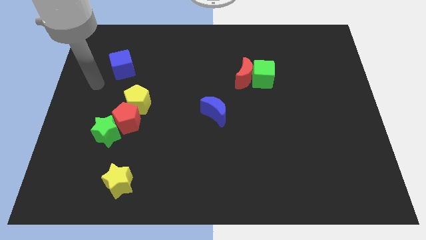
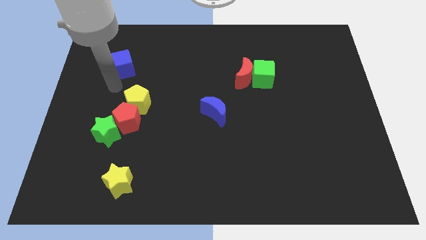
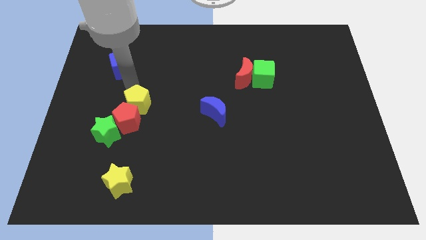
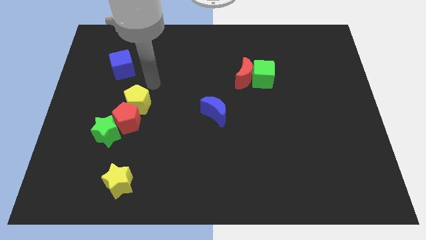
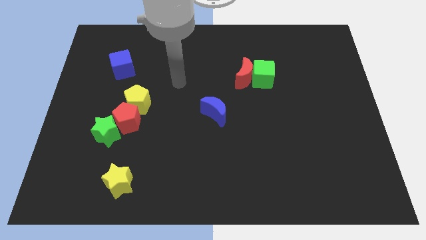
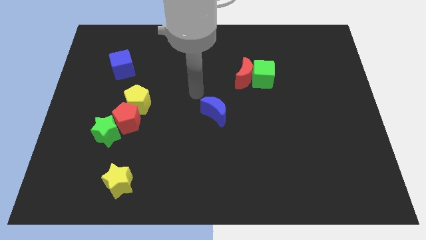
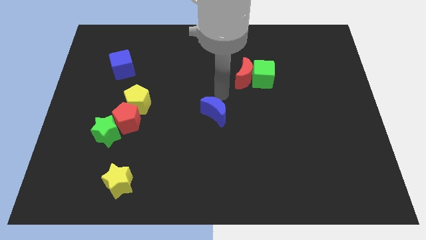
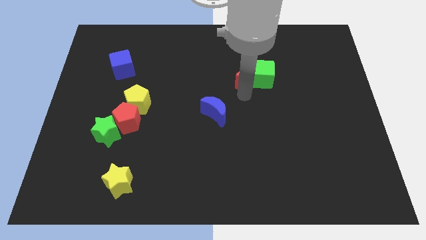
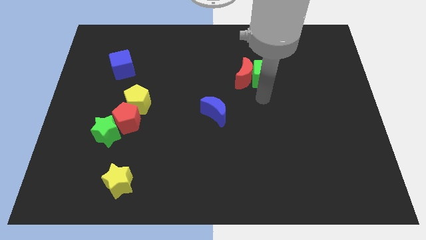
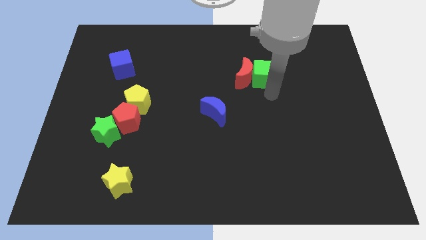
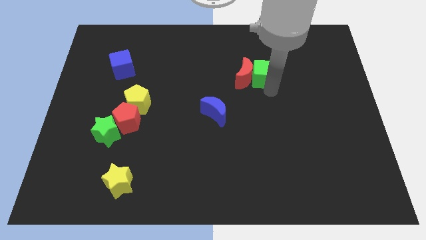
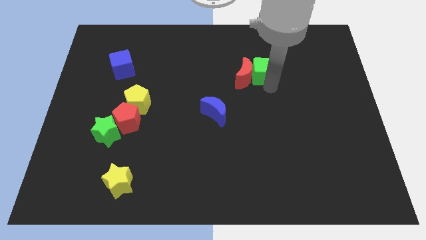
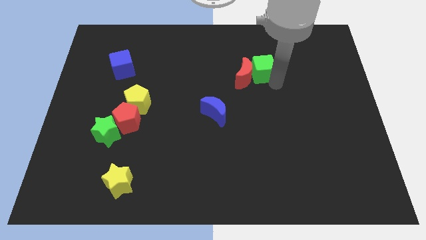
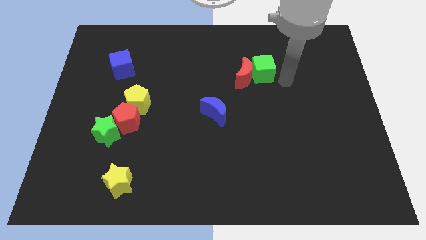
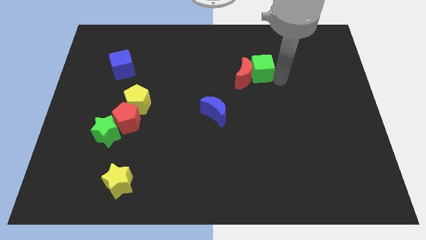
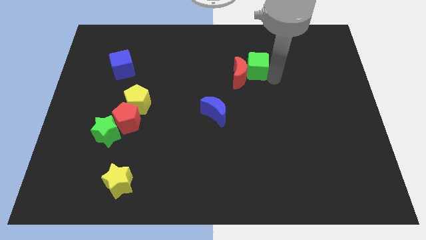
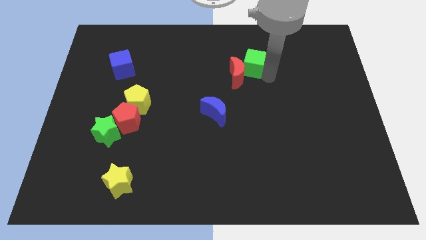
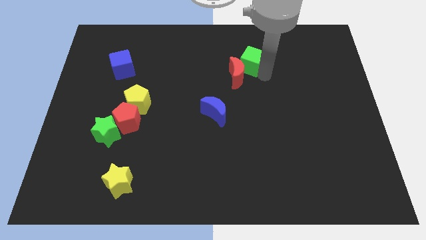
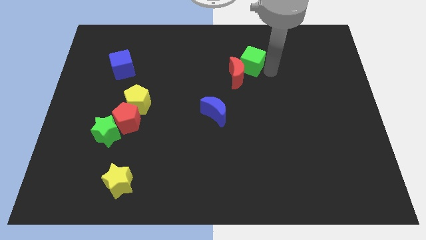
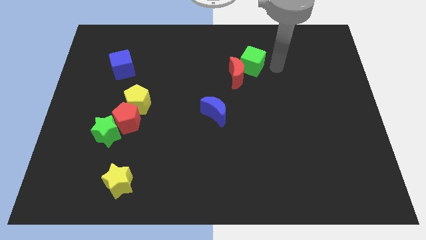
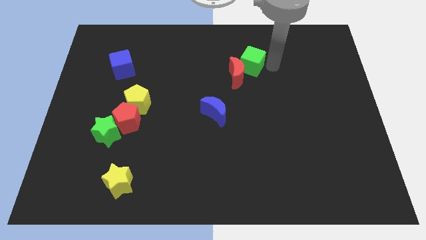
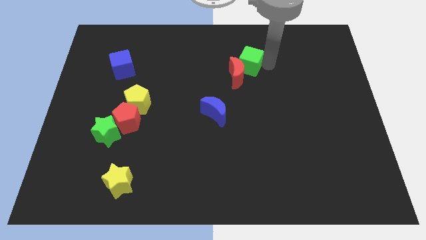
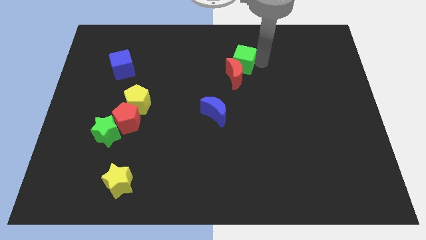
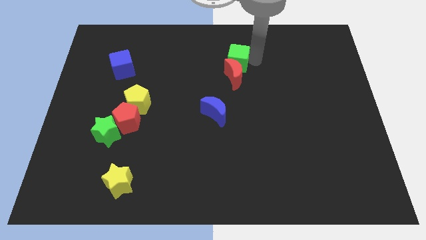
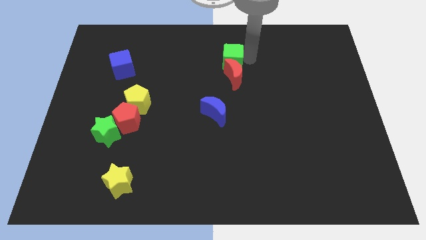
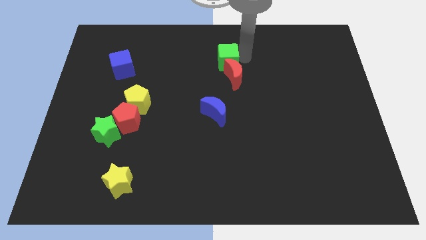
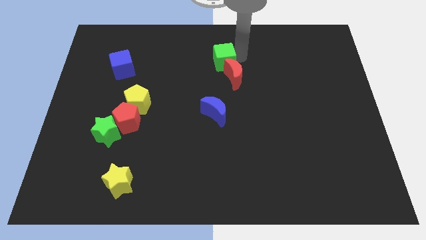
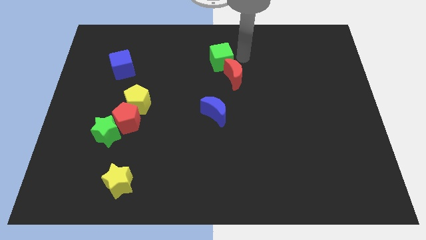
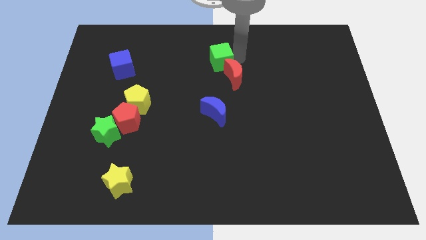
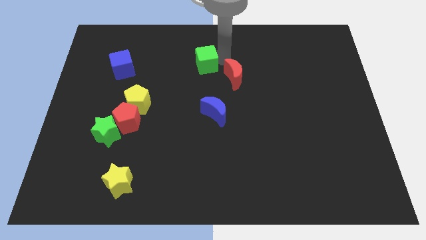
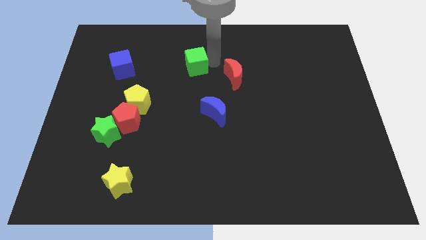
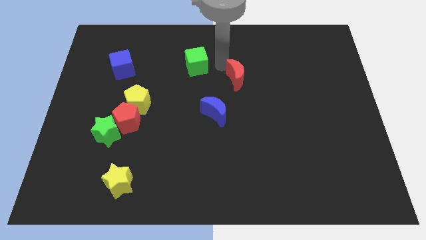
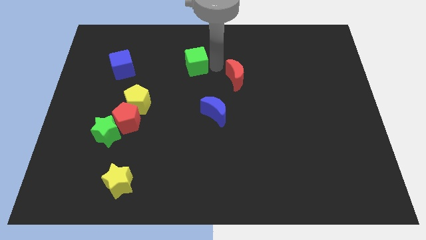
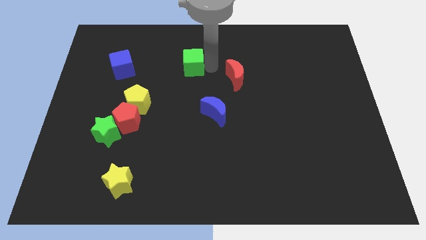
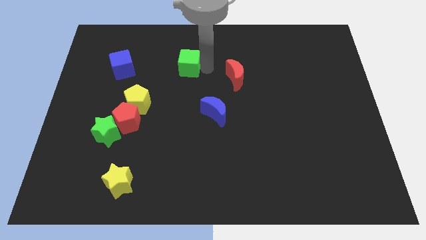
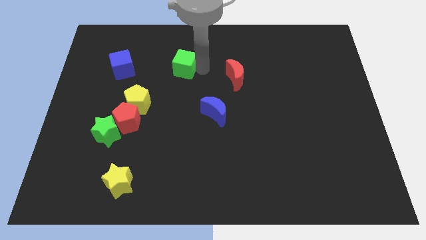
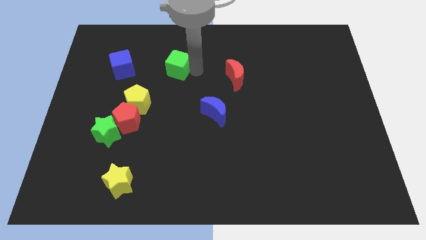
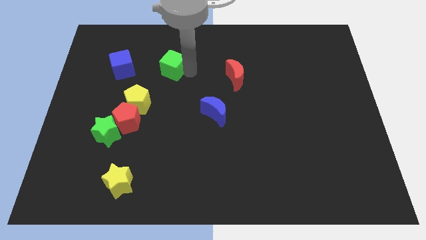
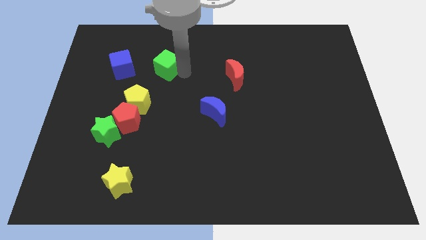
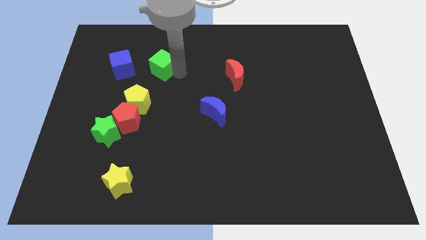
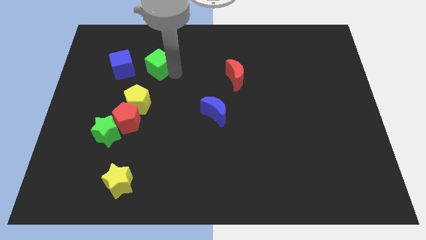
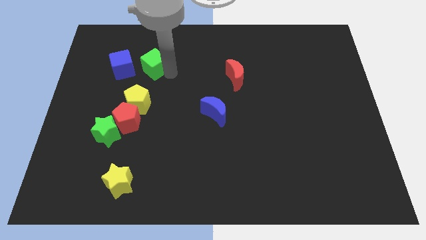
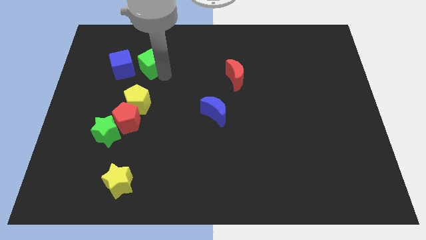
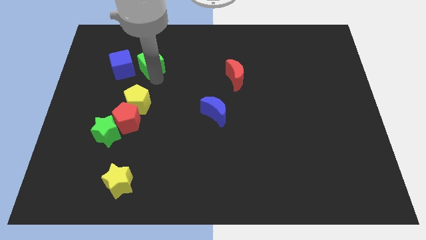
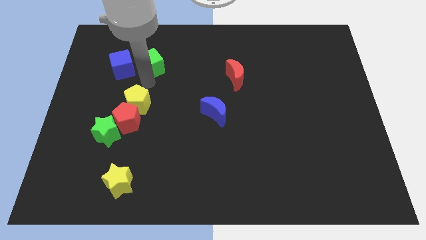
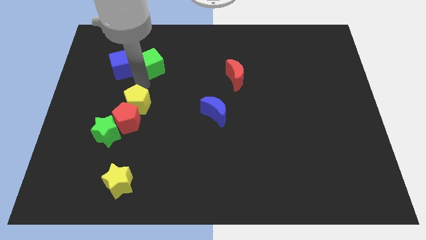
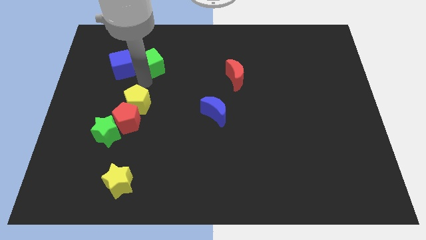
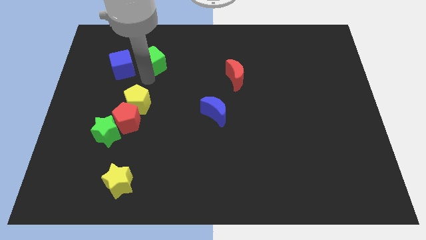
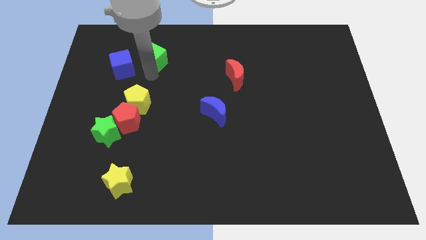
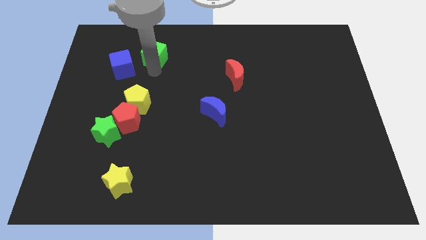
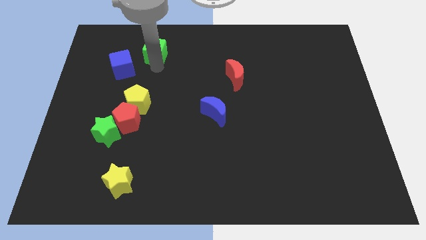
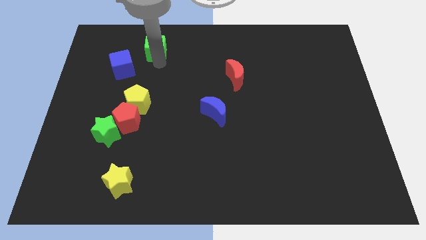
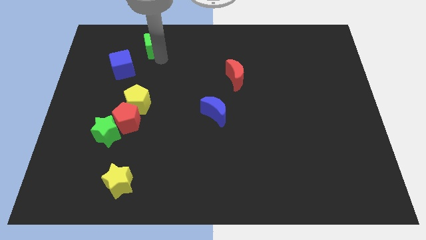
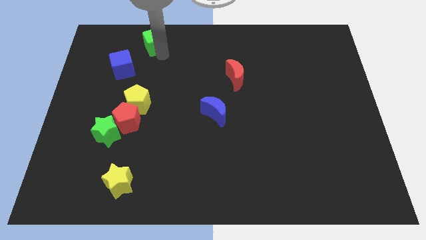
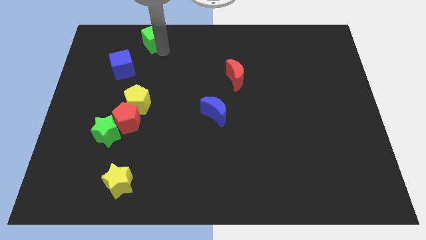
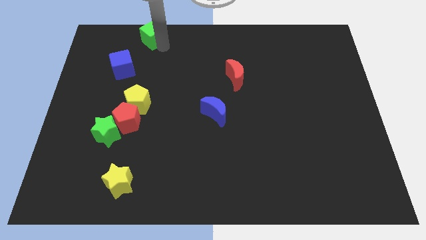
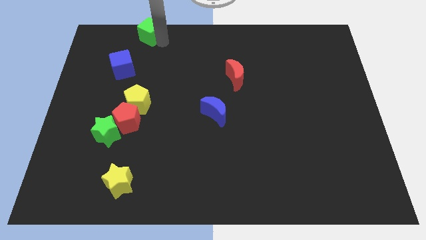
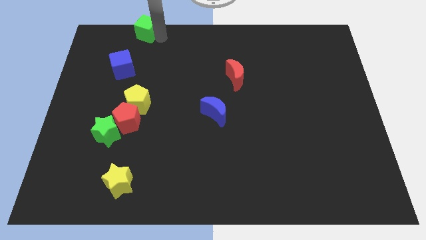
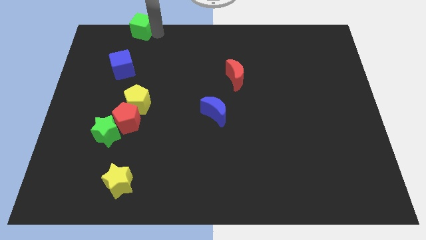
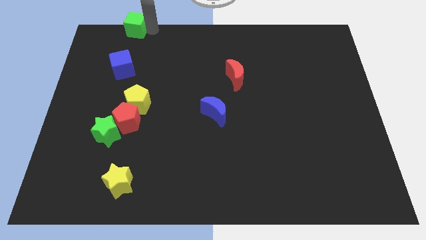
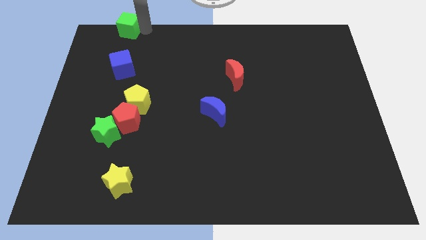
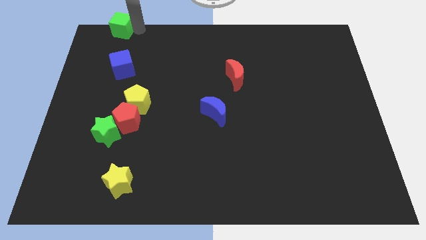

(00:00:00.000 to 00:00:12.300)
move the green cube to the top left of the board

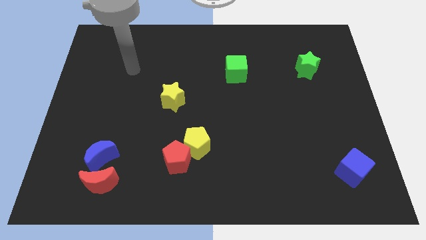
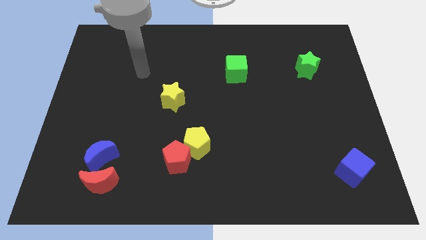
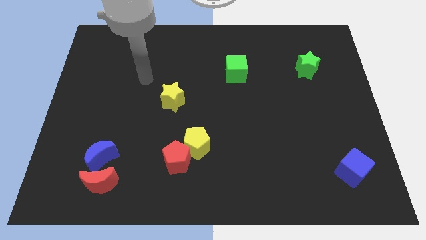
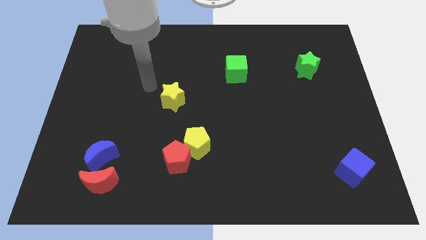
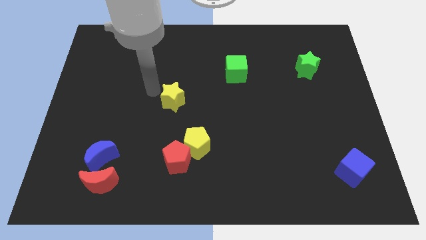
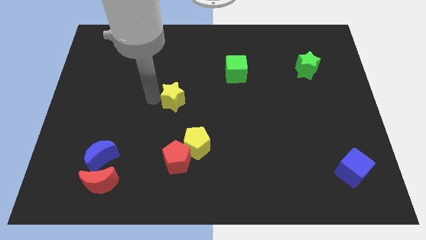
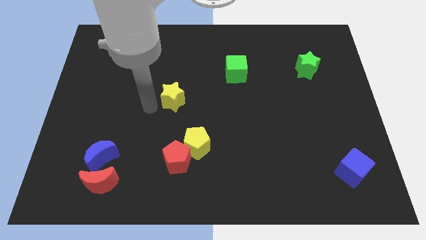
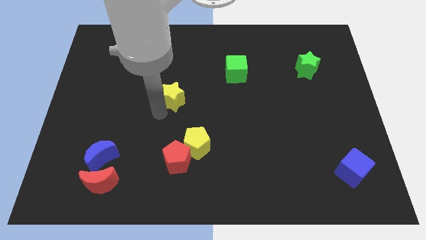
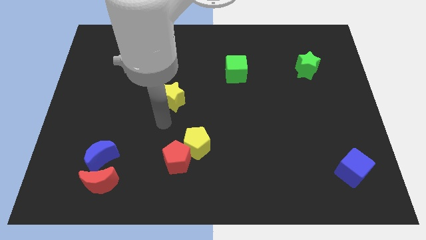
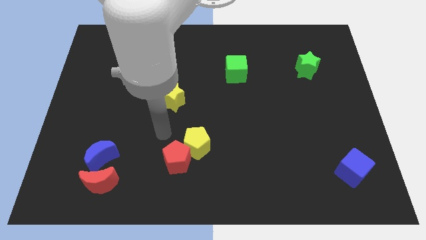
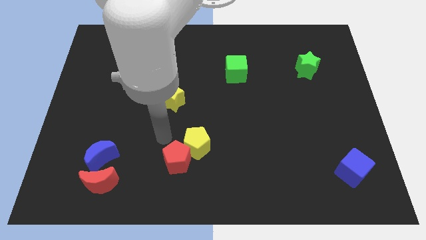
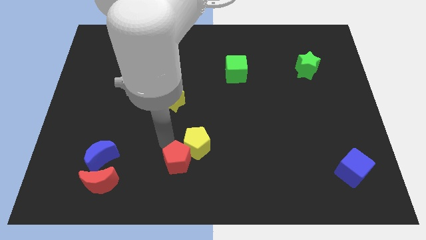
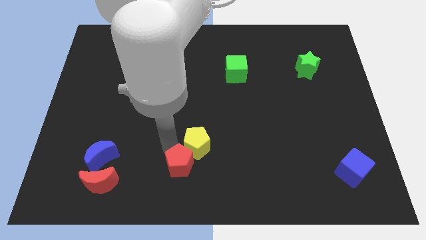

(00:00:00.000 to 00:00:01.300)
push the red pentagon to the bottom side
